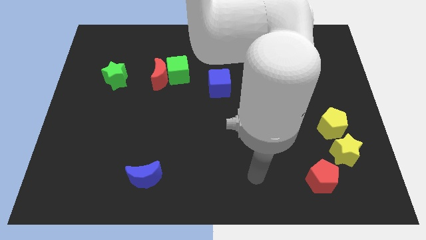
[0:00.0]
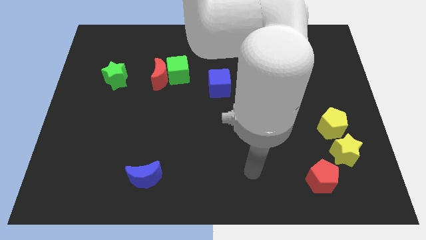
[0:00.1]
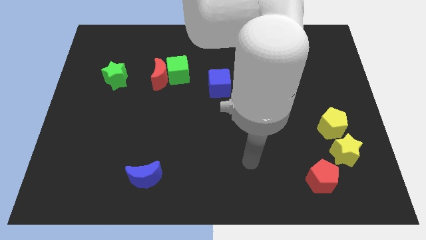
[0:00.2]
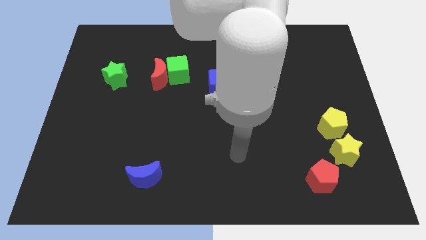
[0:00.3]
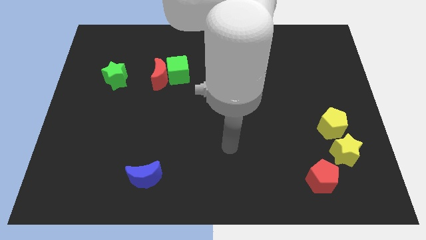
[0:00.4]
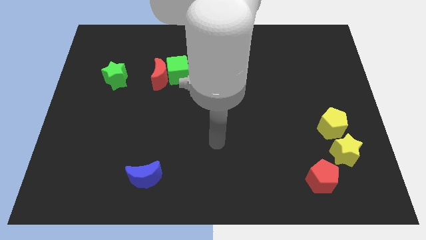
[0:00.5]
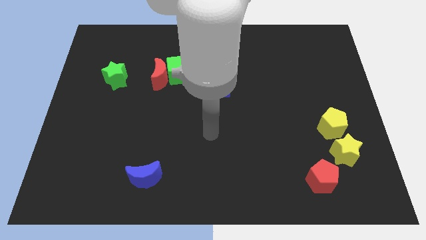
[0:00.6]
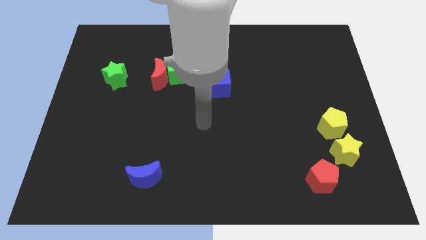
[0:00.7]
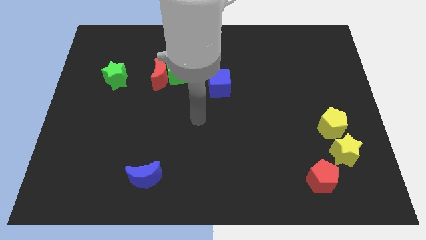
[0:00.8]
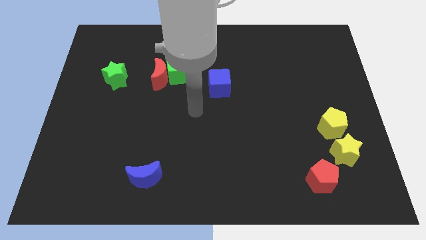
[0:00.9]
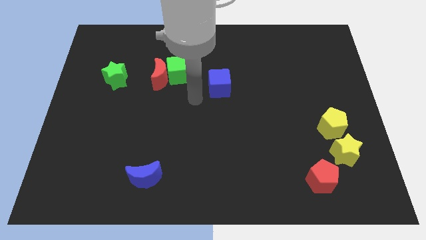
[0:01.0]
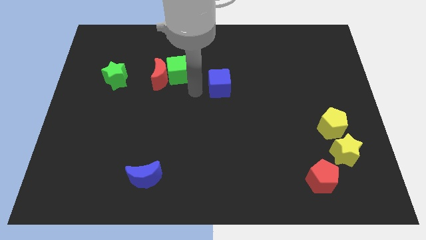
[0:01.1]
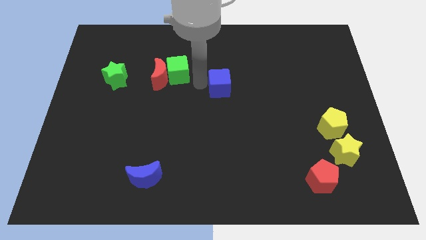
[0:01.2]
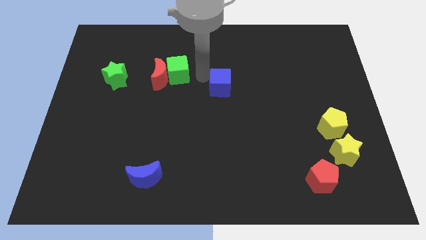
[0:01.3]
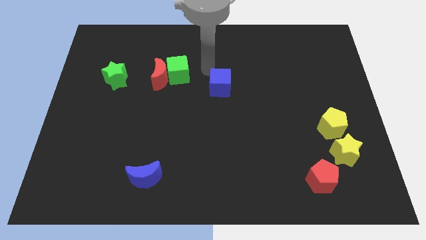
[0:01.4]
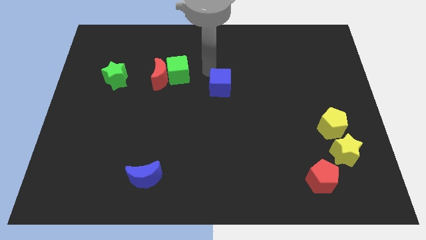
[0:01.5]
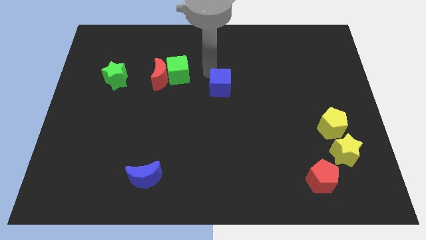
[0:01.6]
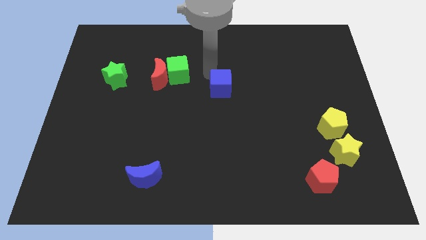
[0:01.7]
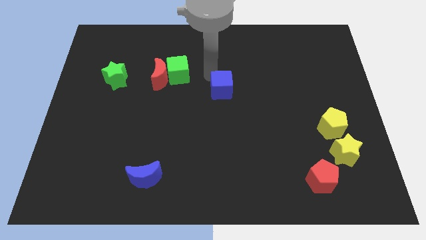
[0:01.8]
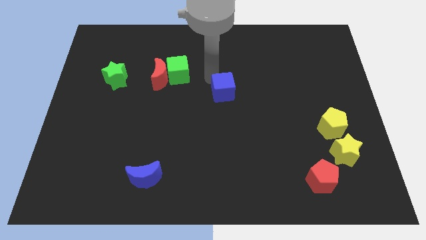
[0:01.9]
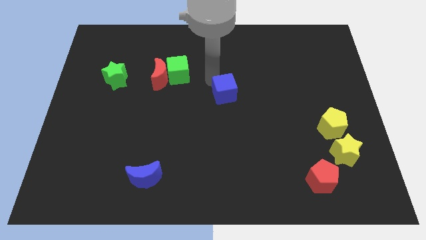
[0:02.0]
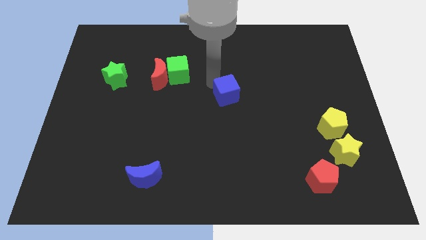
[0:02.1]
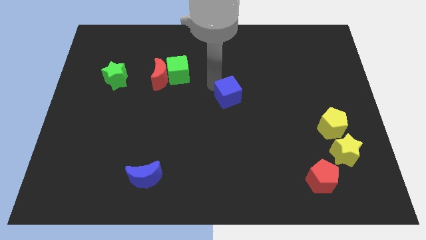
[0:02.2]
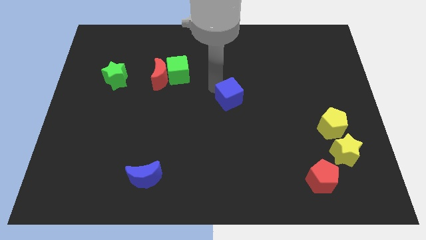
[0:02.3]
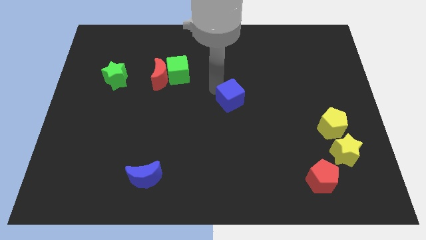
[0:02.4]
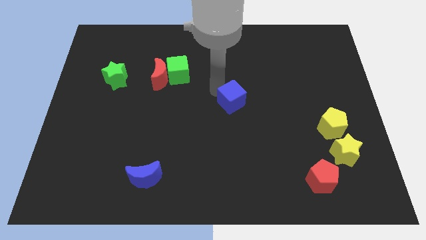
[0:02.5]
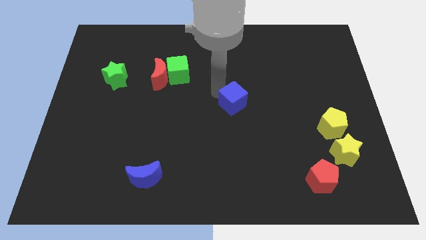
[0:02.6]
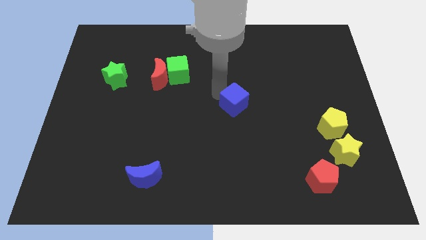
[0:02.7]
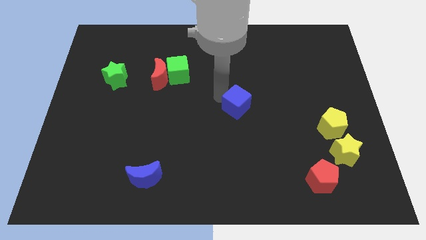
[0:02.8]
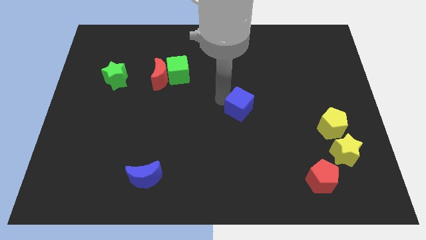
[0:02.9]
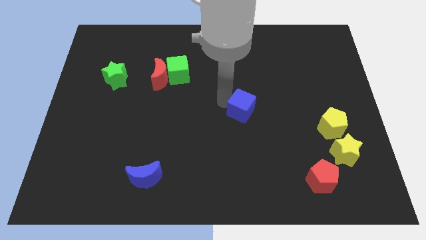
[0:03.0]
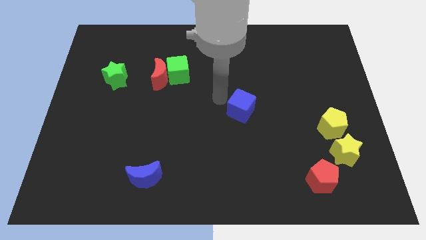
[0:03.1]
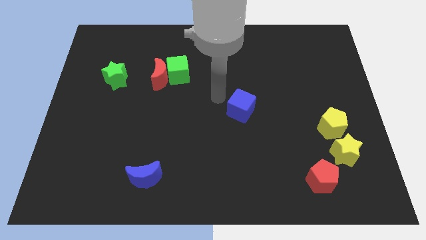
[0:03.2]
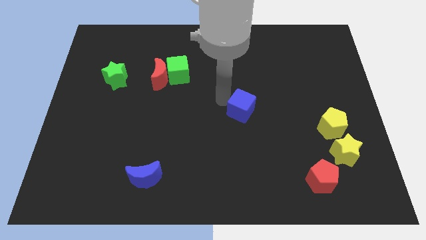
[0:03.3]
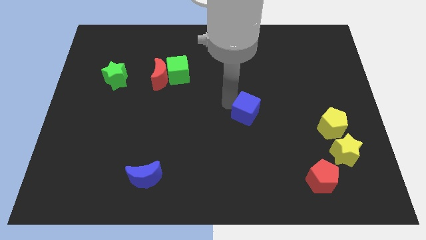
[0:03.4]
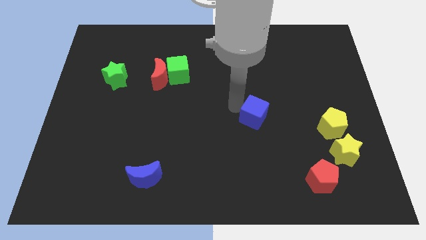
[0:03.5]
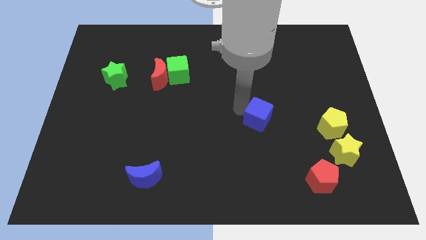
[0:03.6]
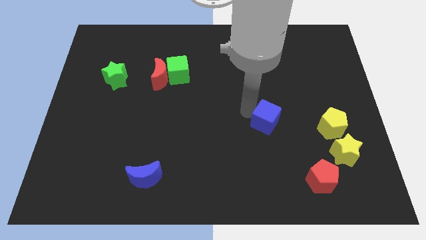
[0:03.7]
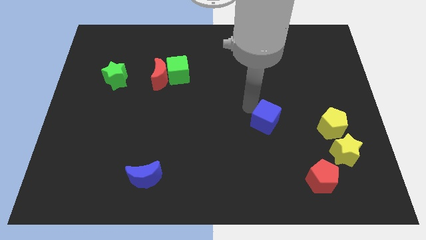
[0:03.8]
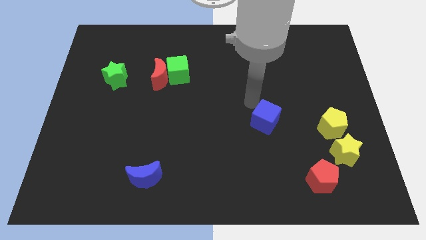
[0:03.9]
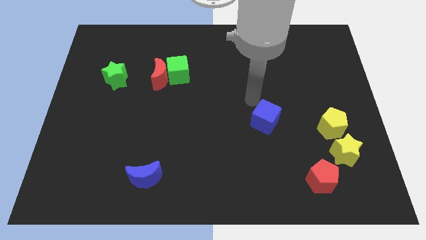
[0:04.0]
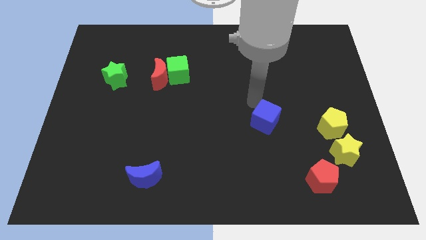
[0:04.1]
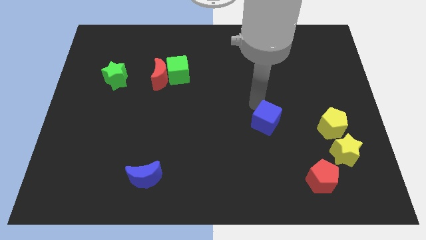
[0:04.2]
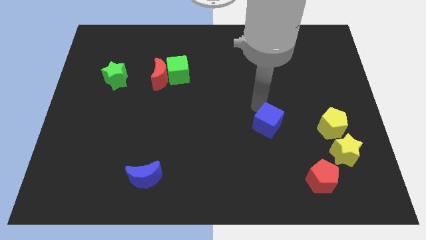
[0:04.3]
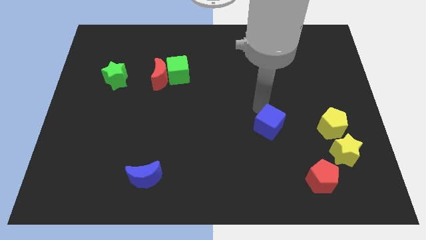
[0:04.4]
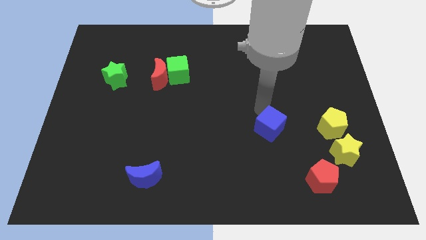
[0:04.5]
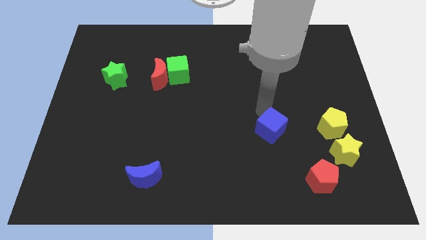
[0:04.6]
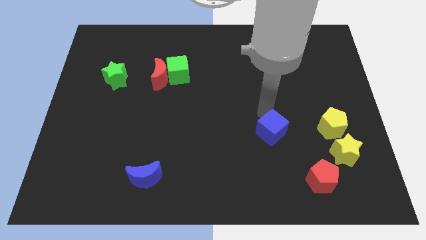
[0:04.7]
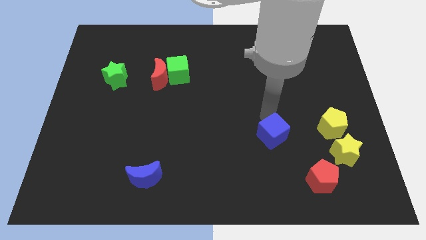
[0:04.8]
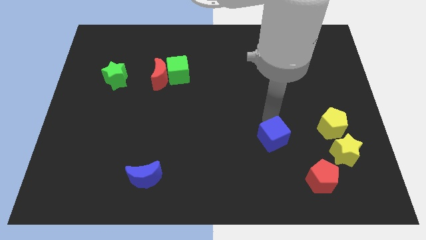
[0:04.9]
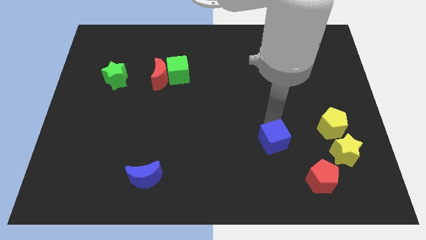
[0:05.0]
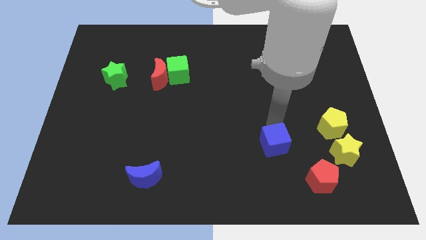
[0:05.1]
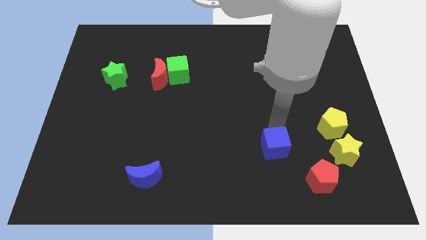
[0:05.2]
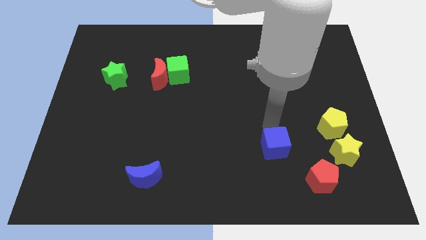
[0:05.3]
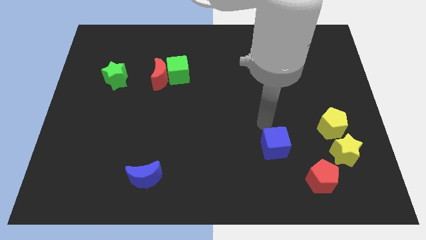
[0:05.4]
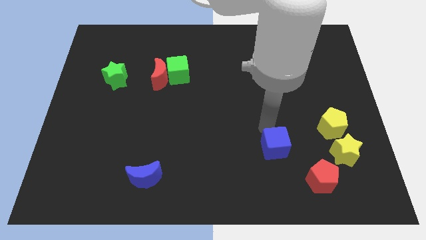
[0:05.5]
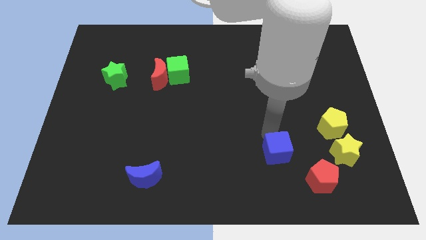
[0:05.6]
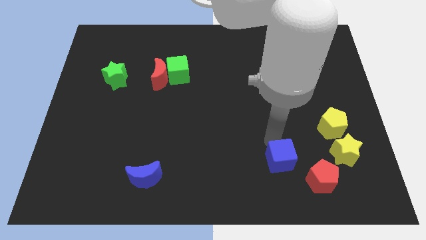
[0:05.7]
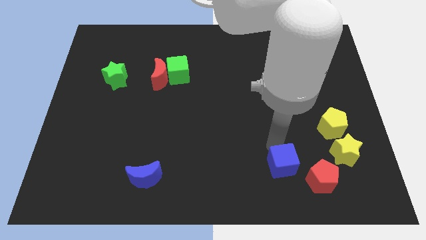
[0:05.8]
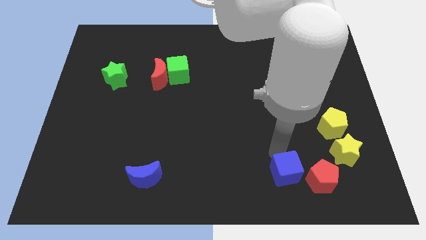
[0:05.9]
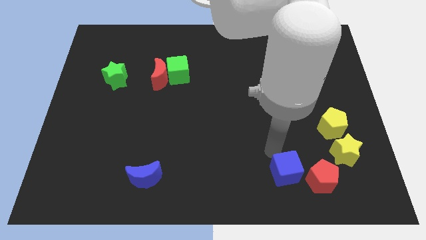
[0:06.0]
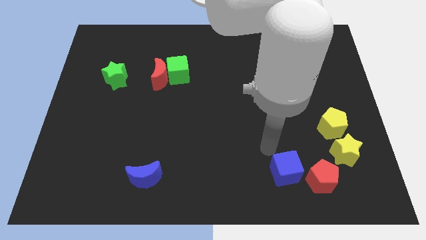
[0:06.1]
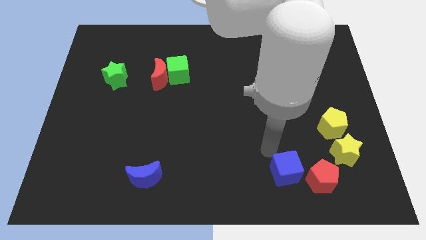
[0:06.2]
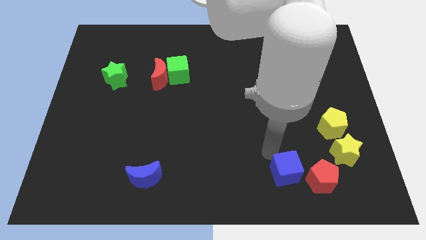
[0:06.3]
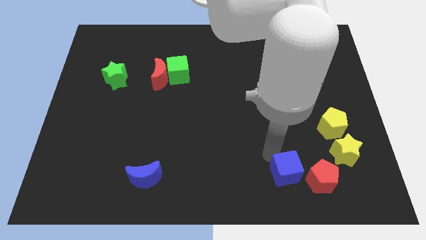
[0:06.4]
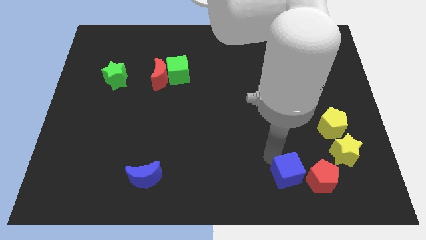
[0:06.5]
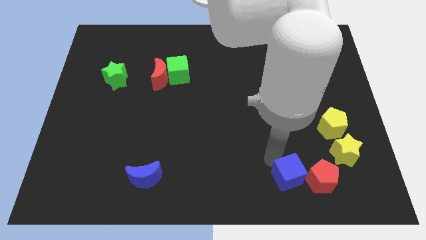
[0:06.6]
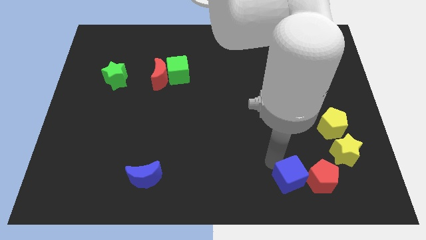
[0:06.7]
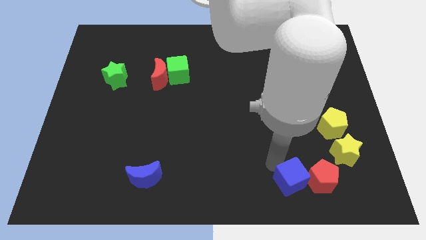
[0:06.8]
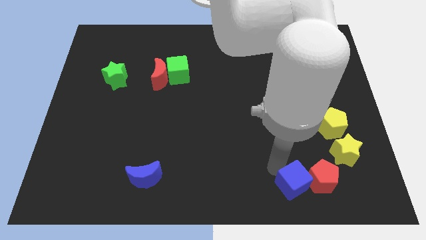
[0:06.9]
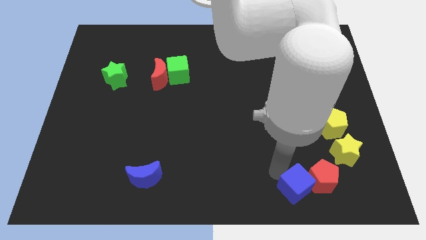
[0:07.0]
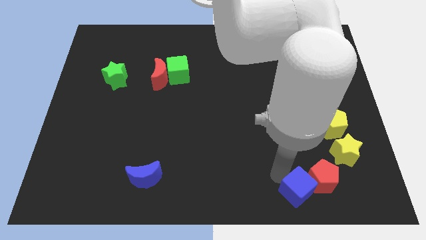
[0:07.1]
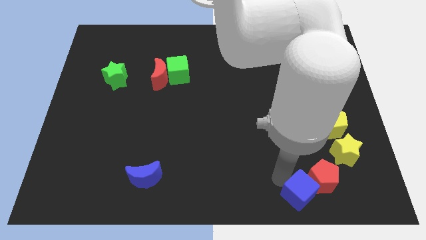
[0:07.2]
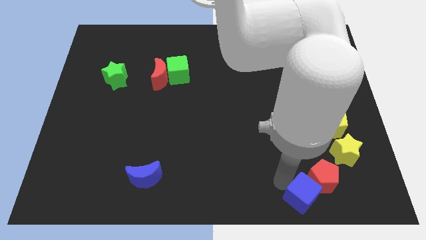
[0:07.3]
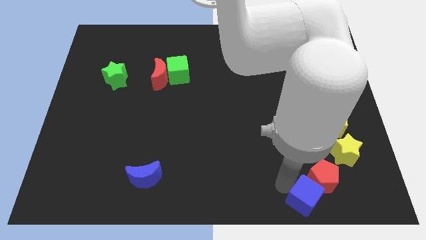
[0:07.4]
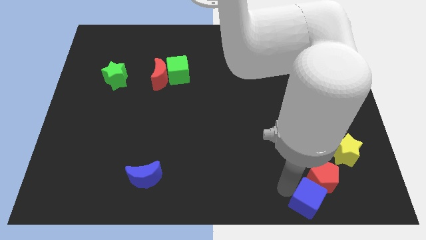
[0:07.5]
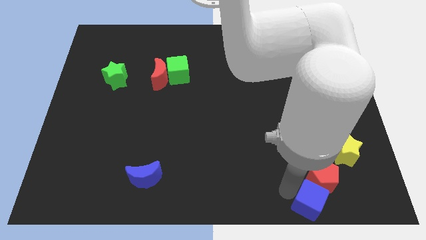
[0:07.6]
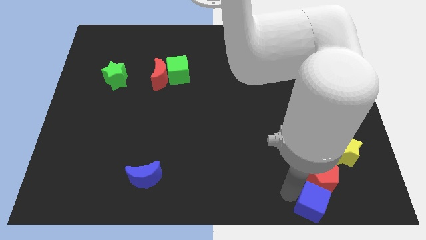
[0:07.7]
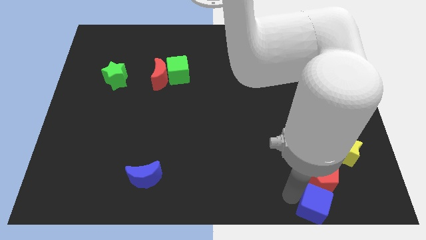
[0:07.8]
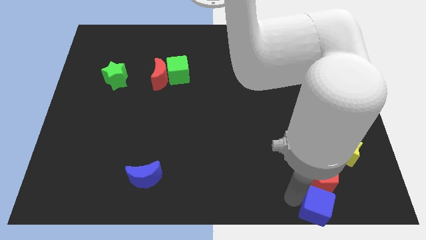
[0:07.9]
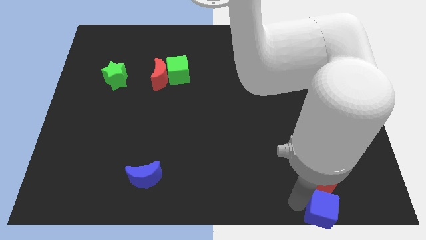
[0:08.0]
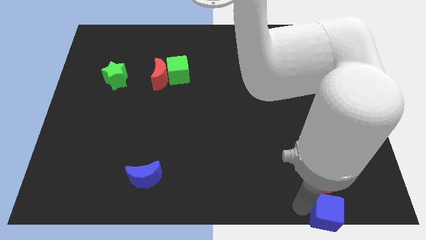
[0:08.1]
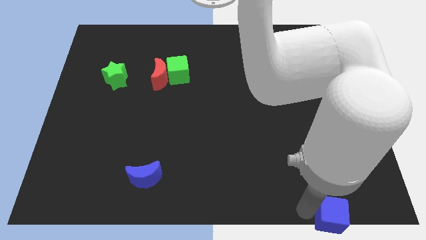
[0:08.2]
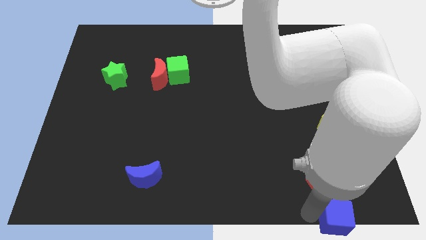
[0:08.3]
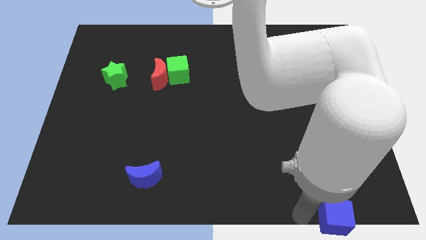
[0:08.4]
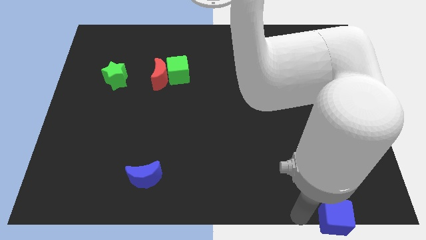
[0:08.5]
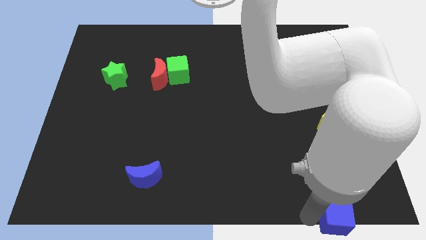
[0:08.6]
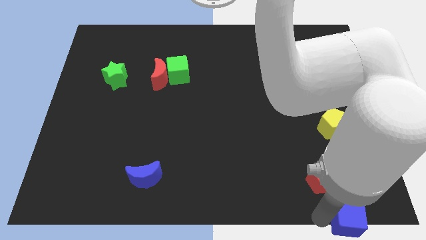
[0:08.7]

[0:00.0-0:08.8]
push the blue cube to the bottom right corner
